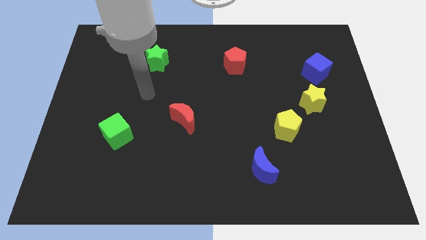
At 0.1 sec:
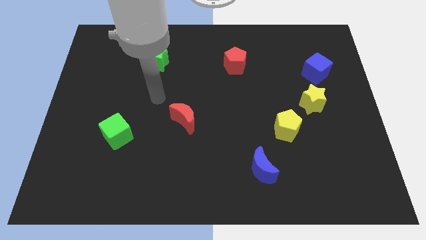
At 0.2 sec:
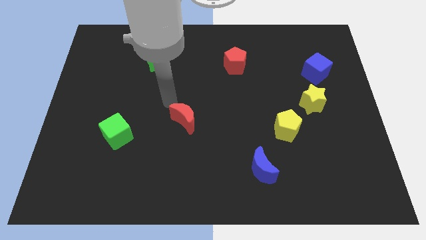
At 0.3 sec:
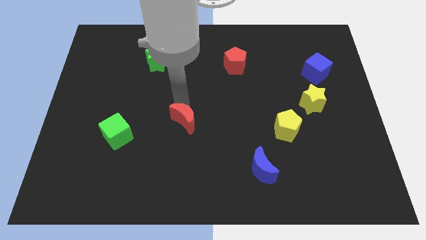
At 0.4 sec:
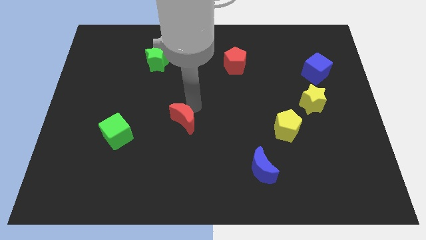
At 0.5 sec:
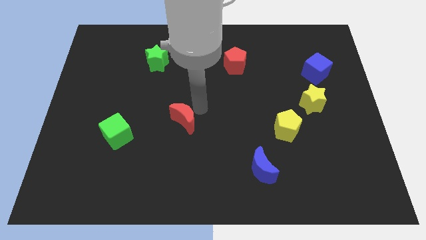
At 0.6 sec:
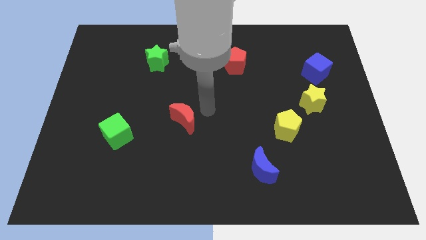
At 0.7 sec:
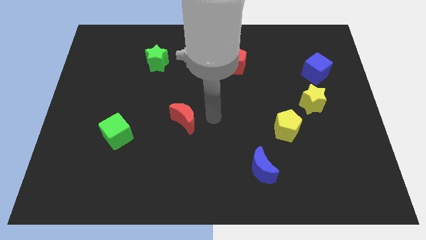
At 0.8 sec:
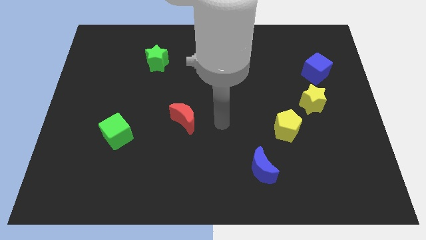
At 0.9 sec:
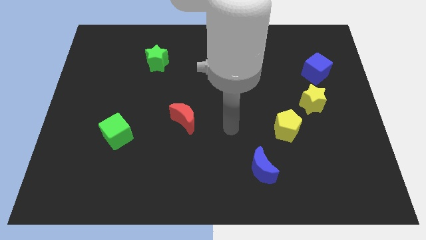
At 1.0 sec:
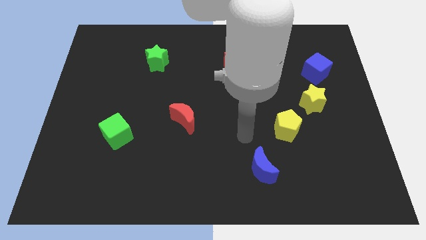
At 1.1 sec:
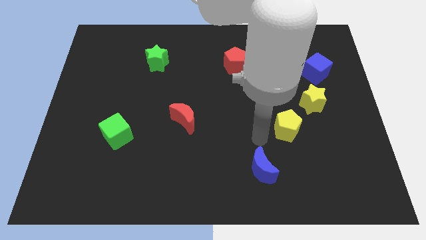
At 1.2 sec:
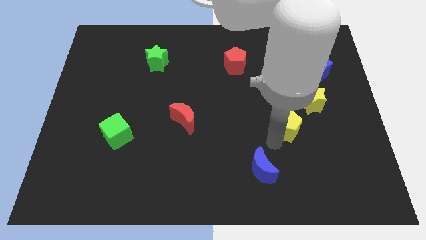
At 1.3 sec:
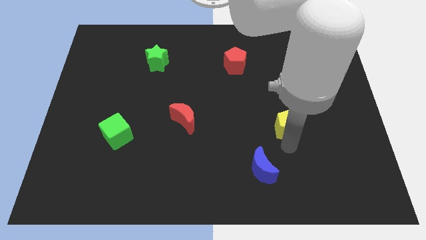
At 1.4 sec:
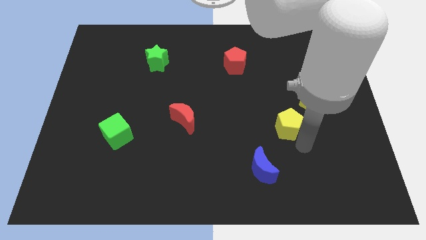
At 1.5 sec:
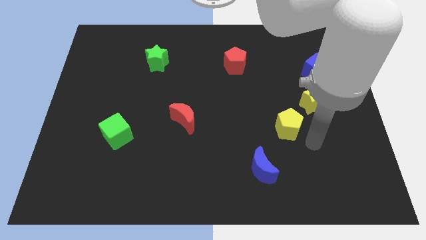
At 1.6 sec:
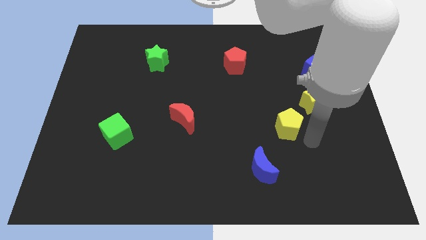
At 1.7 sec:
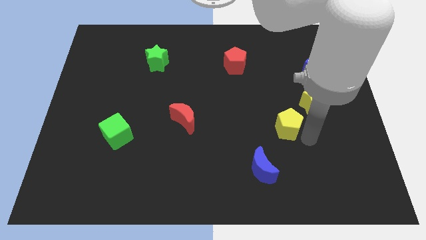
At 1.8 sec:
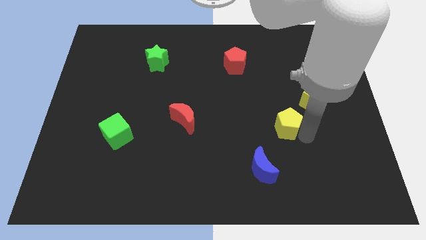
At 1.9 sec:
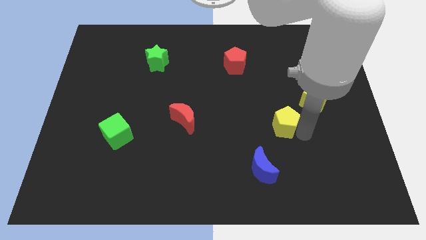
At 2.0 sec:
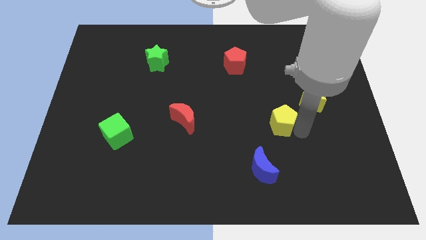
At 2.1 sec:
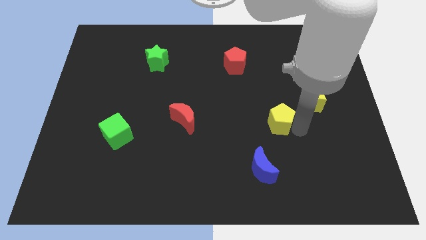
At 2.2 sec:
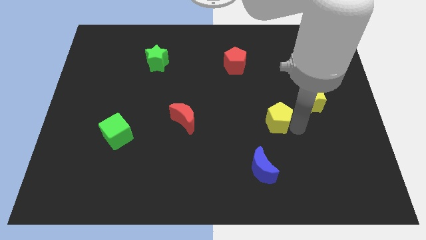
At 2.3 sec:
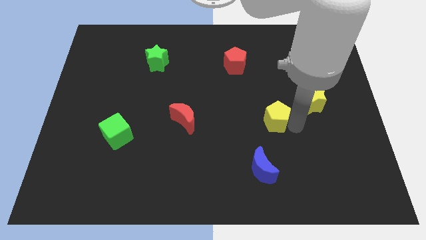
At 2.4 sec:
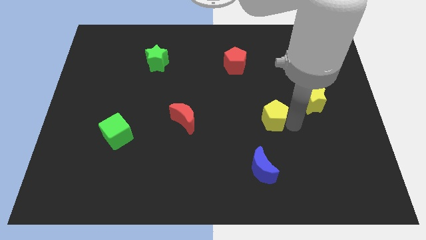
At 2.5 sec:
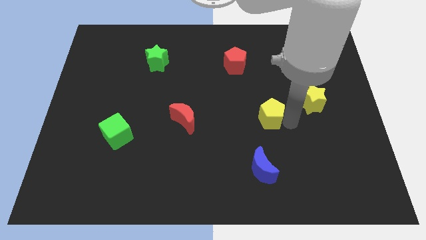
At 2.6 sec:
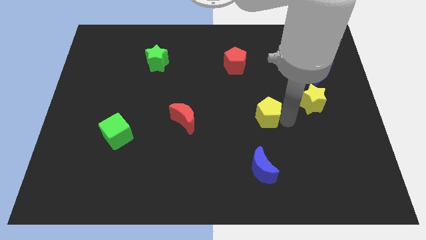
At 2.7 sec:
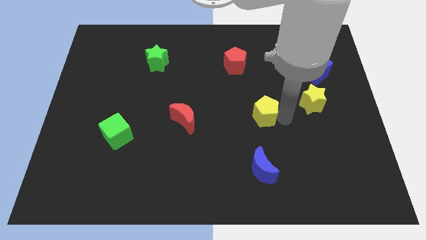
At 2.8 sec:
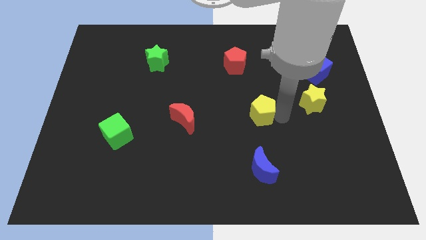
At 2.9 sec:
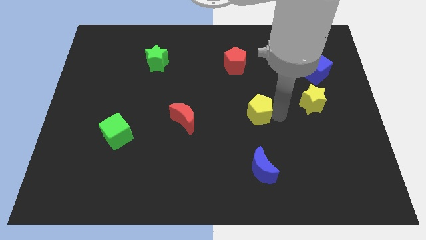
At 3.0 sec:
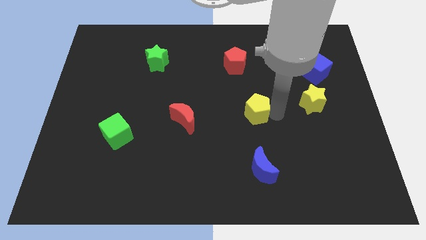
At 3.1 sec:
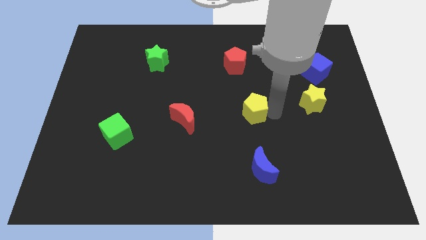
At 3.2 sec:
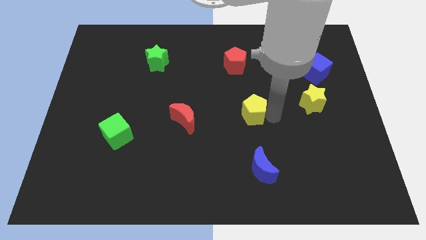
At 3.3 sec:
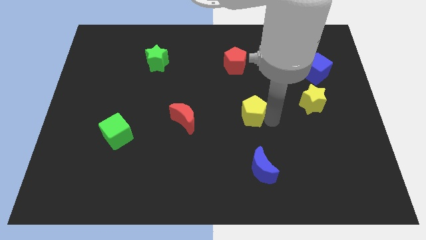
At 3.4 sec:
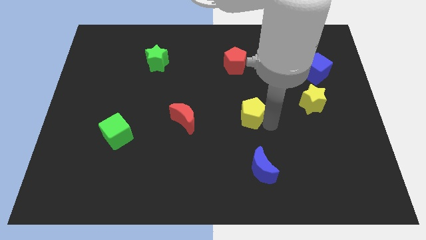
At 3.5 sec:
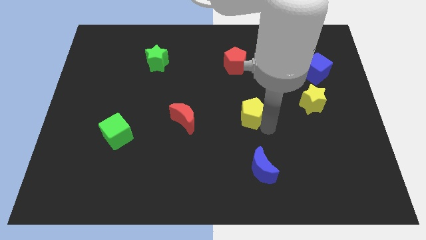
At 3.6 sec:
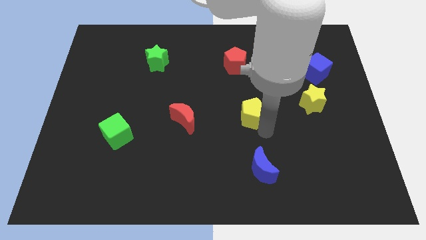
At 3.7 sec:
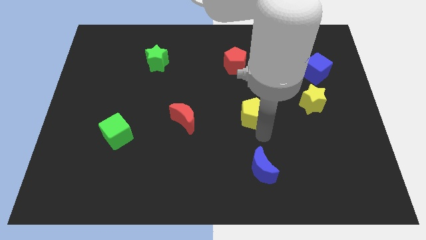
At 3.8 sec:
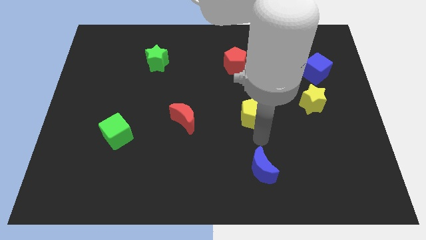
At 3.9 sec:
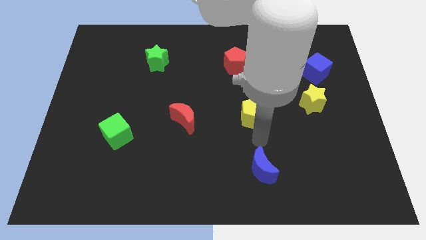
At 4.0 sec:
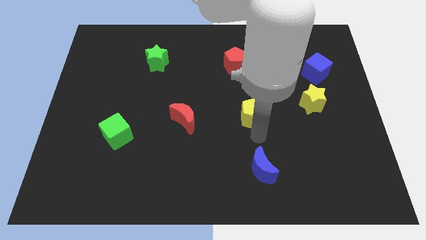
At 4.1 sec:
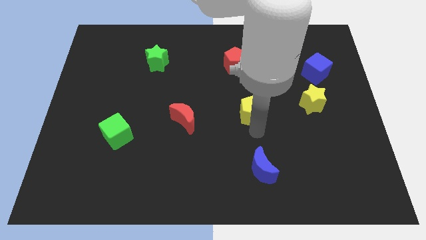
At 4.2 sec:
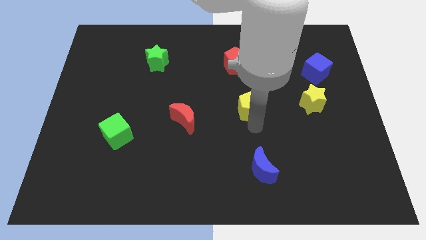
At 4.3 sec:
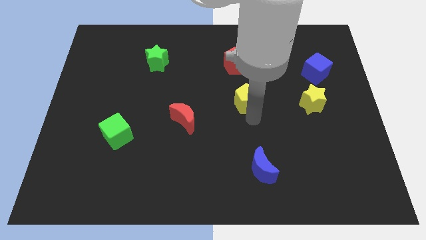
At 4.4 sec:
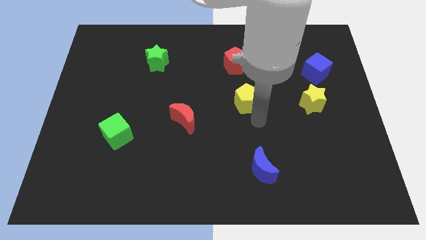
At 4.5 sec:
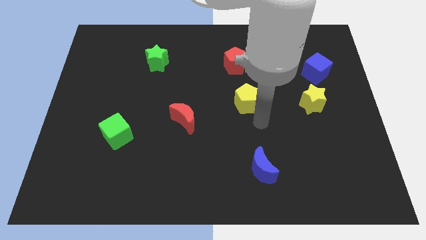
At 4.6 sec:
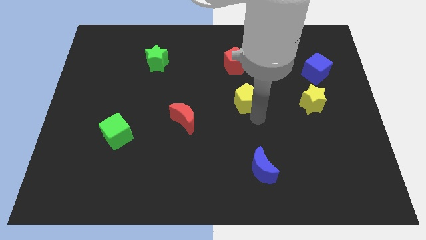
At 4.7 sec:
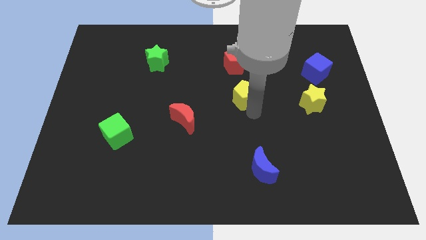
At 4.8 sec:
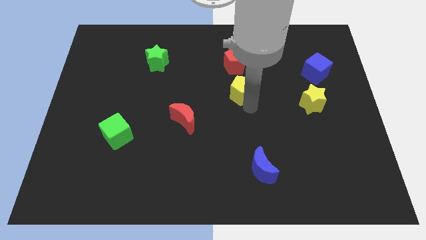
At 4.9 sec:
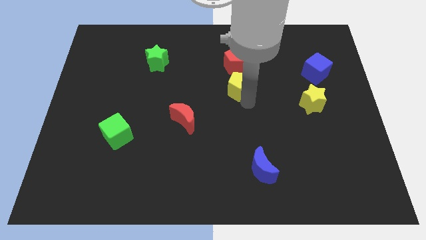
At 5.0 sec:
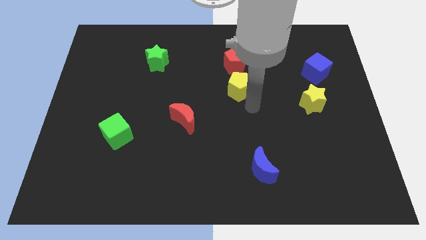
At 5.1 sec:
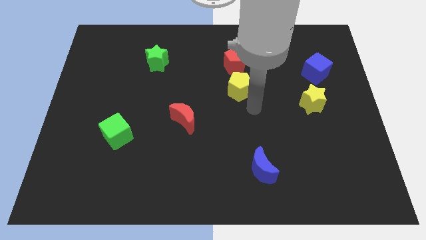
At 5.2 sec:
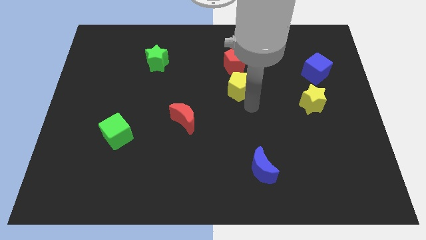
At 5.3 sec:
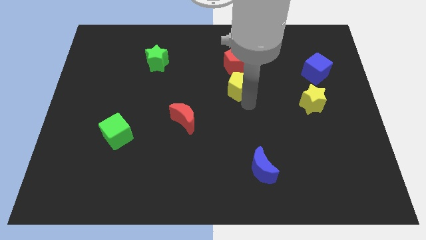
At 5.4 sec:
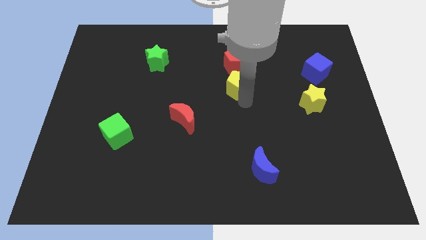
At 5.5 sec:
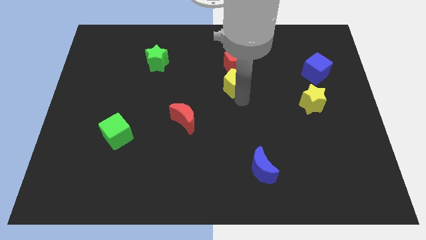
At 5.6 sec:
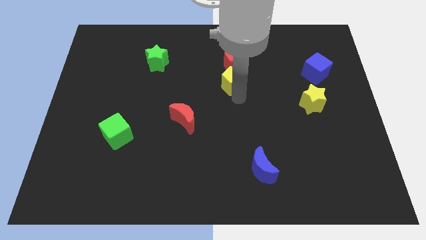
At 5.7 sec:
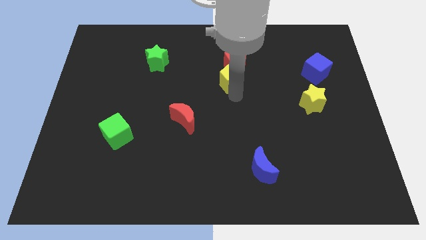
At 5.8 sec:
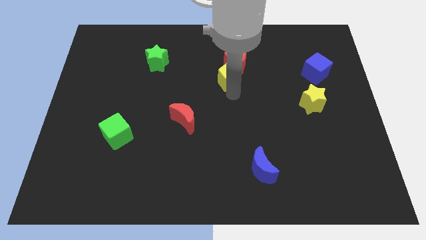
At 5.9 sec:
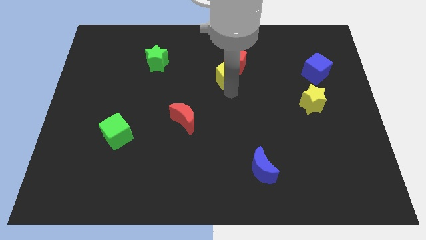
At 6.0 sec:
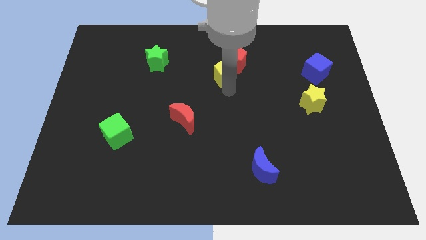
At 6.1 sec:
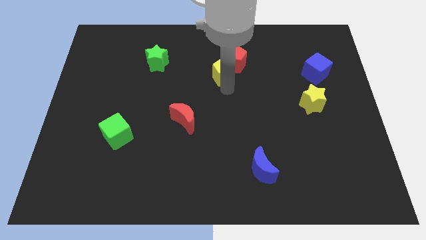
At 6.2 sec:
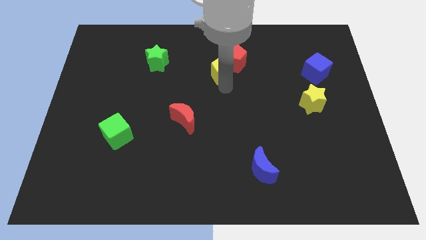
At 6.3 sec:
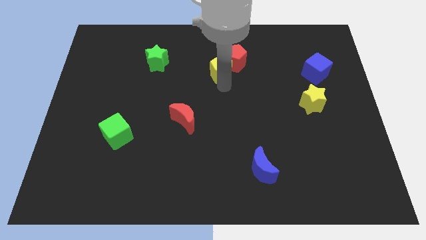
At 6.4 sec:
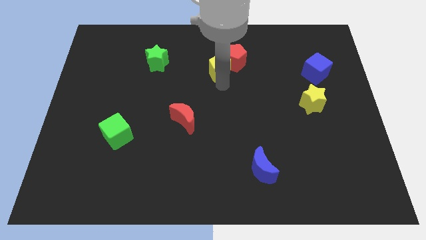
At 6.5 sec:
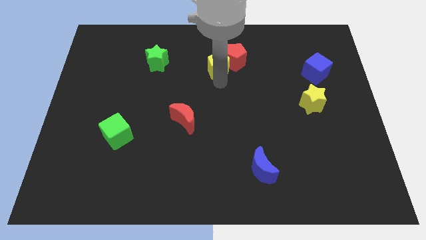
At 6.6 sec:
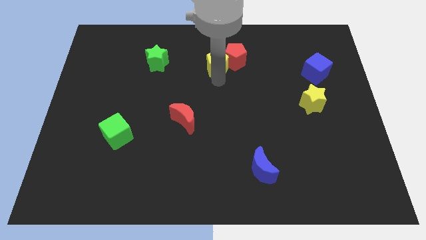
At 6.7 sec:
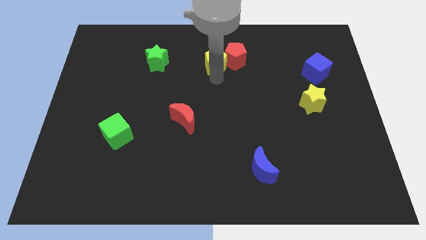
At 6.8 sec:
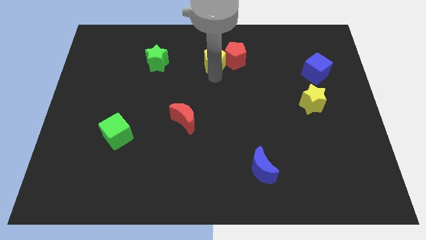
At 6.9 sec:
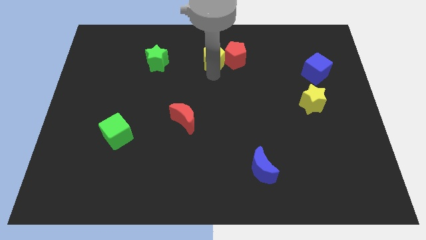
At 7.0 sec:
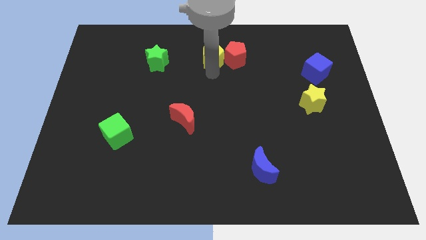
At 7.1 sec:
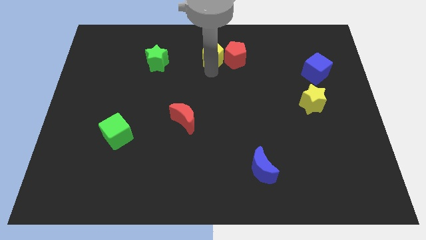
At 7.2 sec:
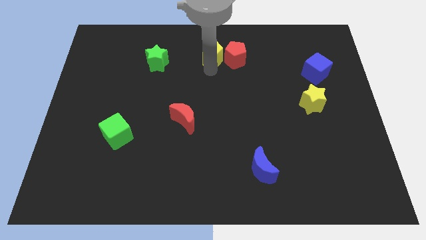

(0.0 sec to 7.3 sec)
push the yellow pentagon to the top
